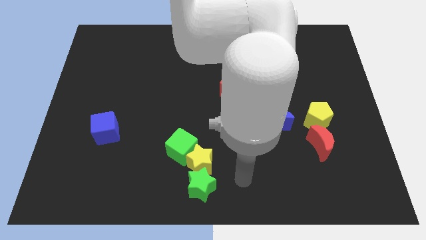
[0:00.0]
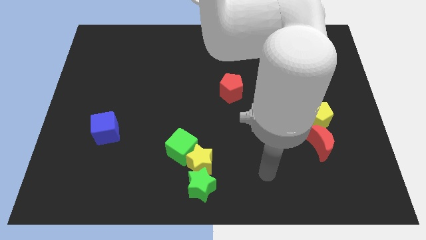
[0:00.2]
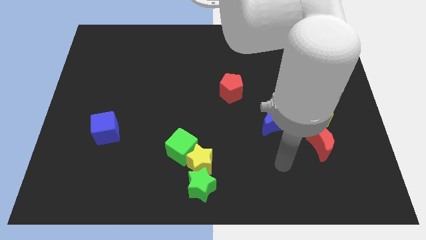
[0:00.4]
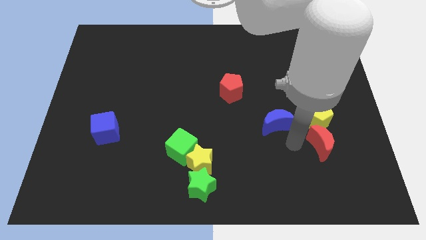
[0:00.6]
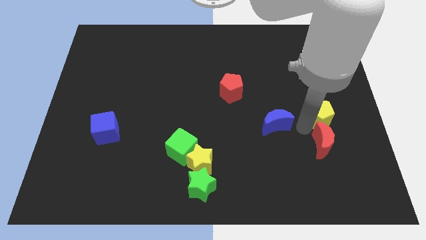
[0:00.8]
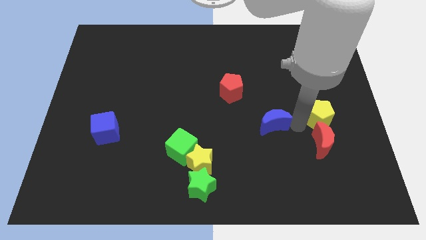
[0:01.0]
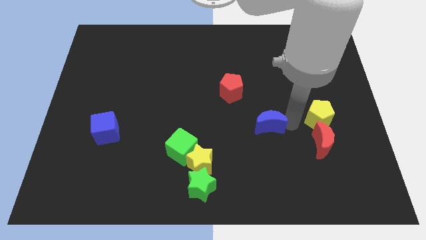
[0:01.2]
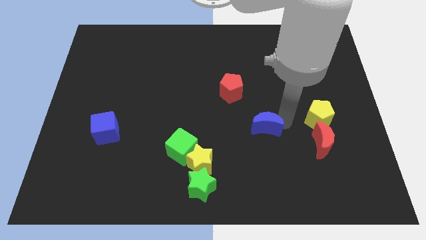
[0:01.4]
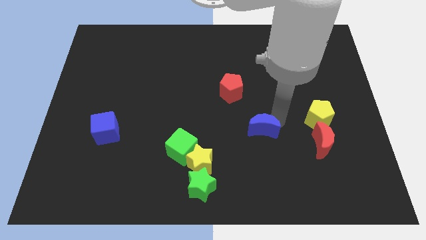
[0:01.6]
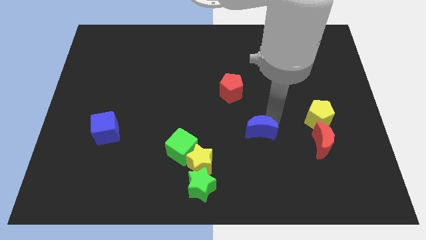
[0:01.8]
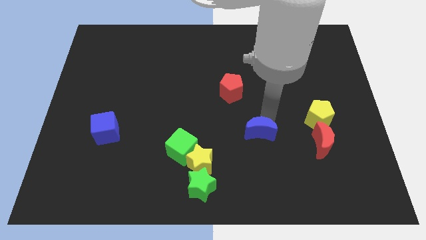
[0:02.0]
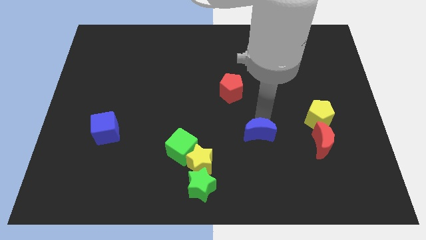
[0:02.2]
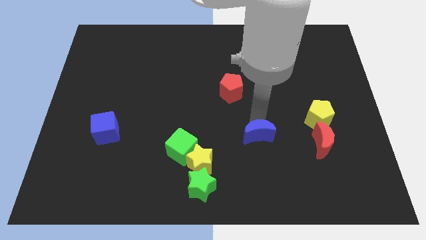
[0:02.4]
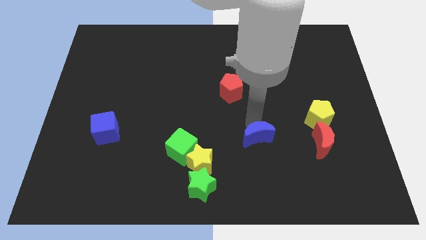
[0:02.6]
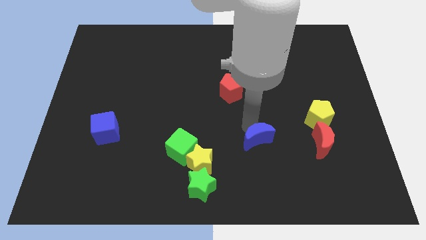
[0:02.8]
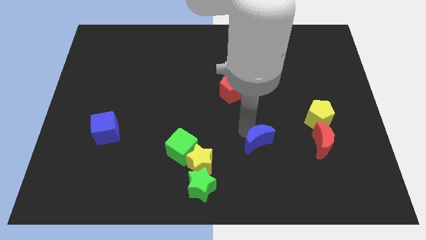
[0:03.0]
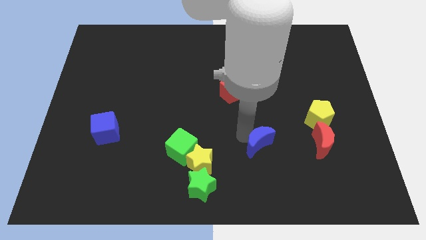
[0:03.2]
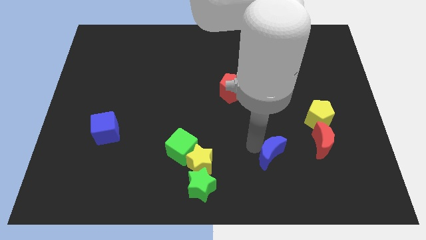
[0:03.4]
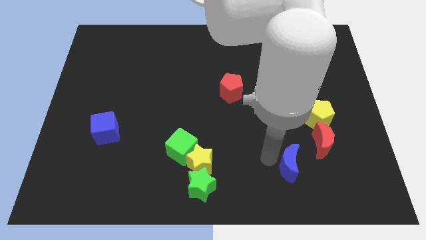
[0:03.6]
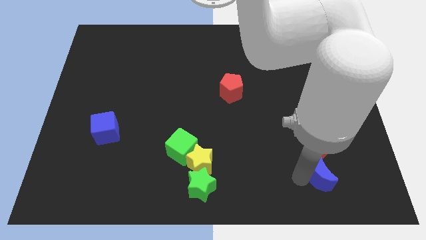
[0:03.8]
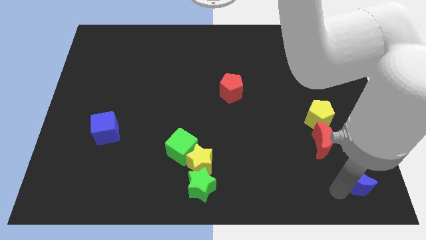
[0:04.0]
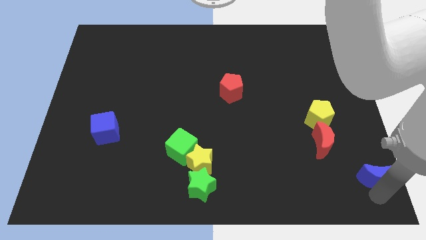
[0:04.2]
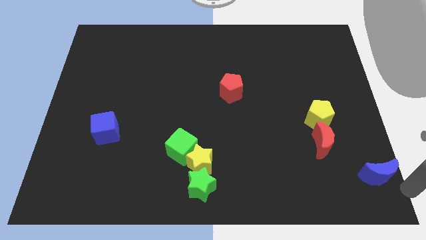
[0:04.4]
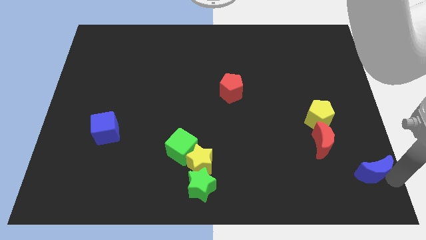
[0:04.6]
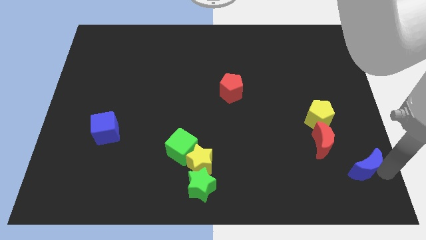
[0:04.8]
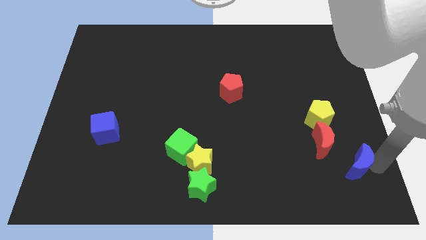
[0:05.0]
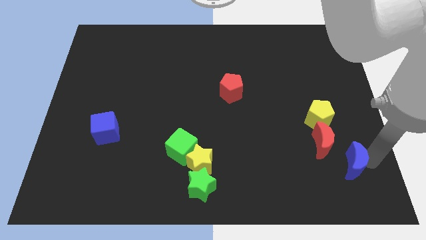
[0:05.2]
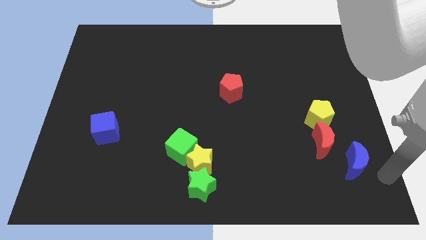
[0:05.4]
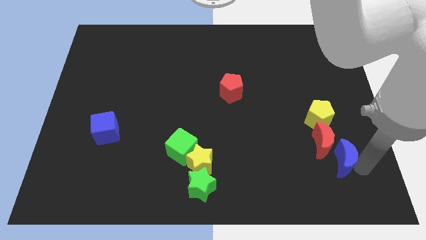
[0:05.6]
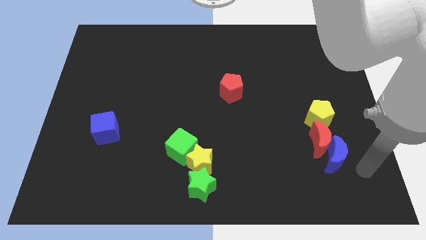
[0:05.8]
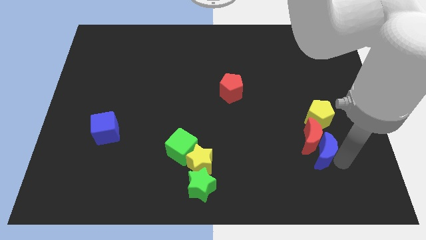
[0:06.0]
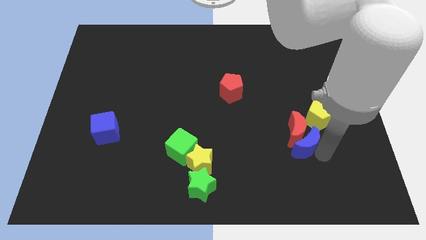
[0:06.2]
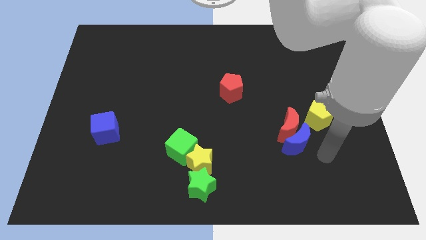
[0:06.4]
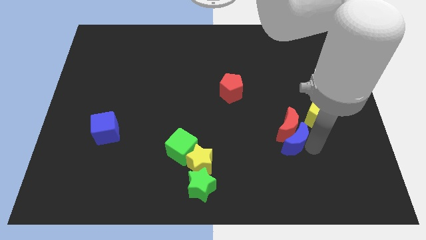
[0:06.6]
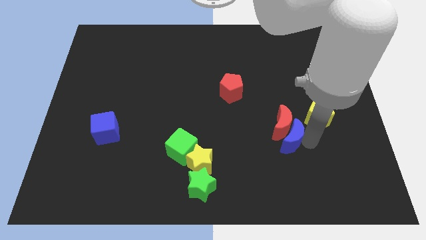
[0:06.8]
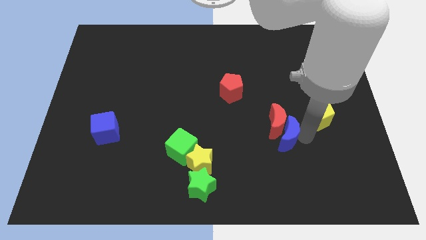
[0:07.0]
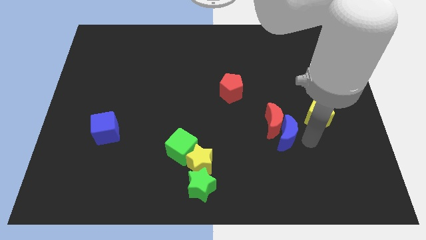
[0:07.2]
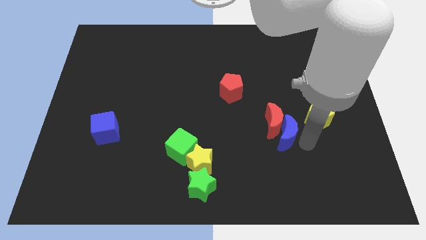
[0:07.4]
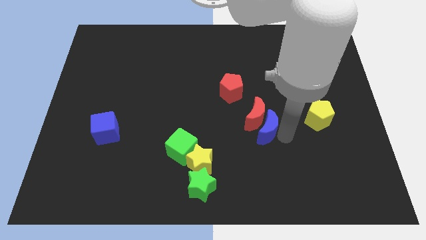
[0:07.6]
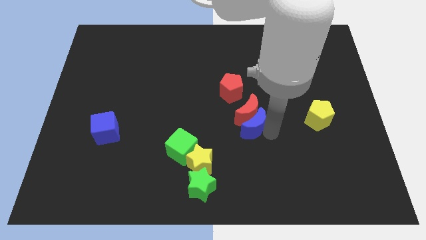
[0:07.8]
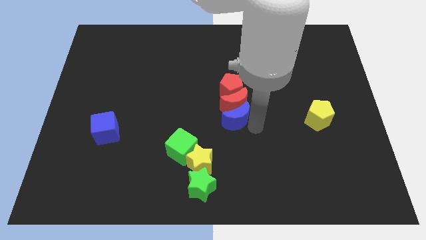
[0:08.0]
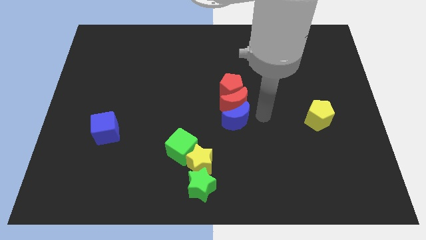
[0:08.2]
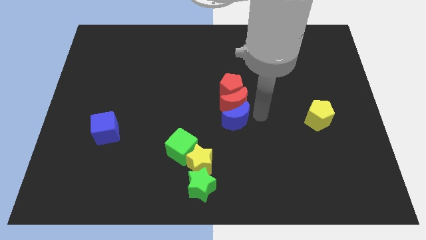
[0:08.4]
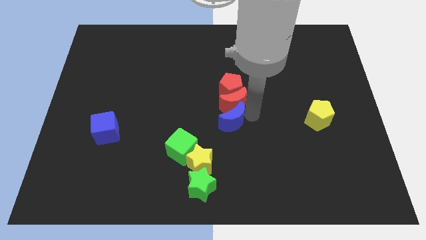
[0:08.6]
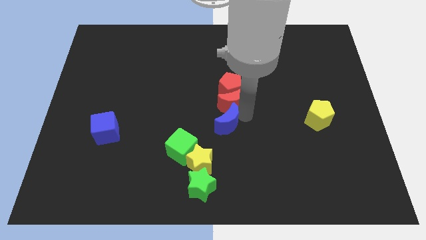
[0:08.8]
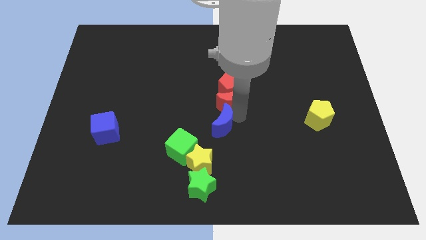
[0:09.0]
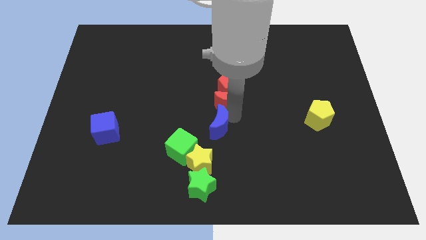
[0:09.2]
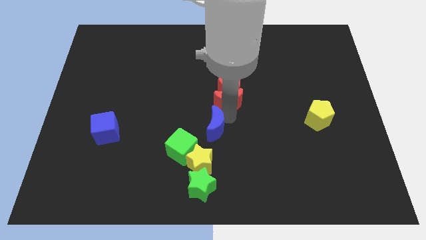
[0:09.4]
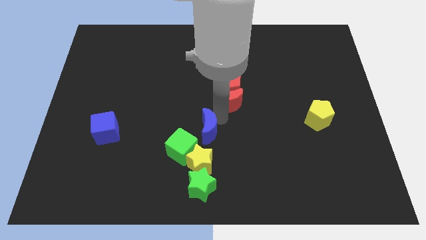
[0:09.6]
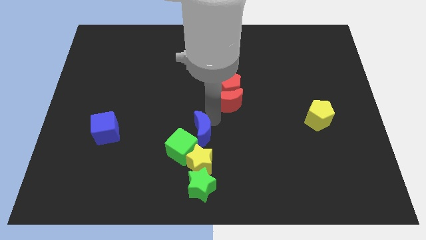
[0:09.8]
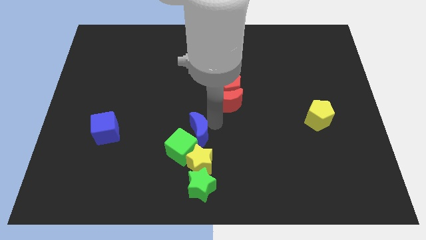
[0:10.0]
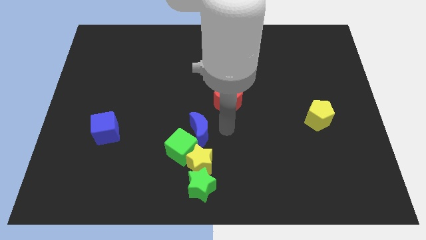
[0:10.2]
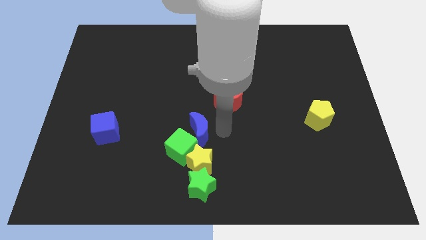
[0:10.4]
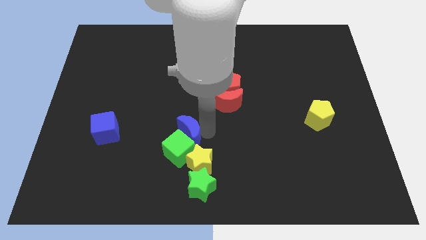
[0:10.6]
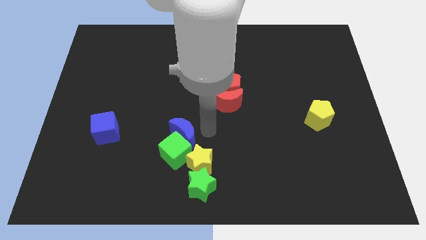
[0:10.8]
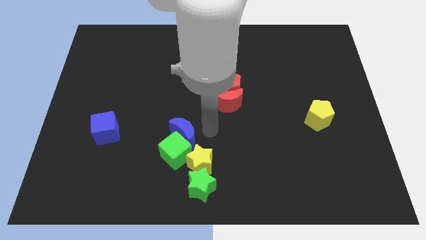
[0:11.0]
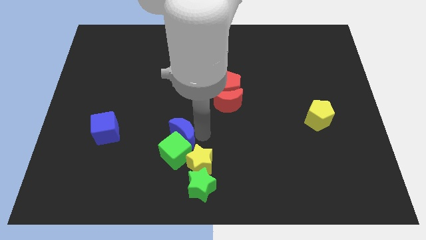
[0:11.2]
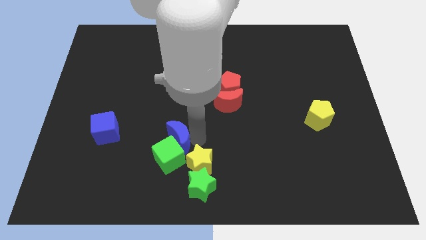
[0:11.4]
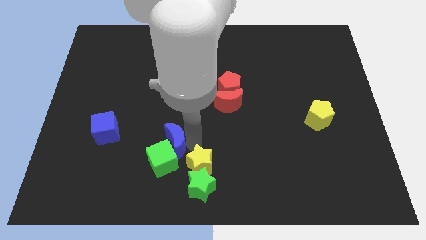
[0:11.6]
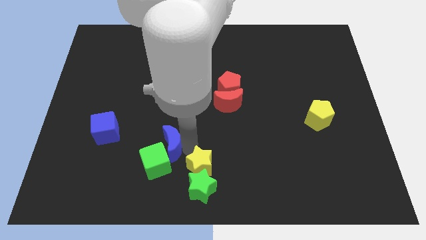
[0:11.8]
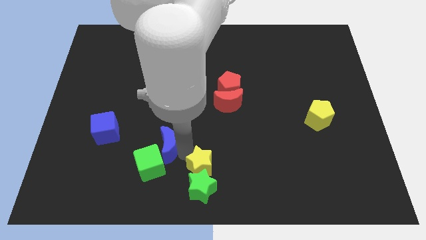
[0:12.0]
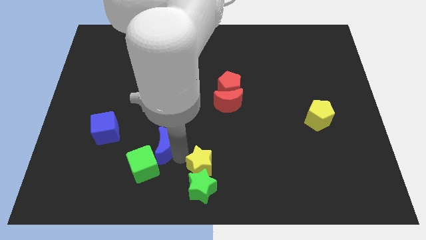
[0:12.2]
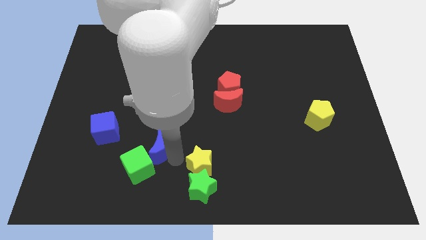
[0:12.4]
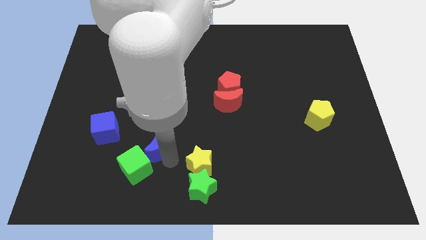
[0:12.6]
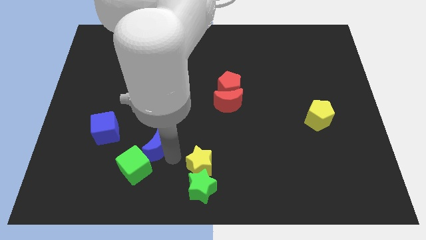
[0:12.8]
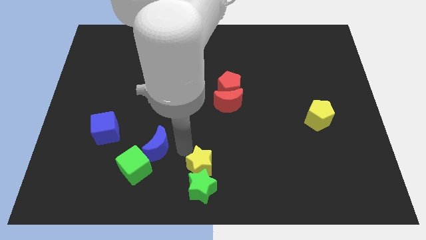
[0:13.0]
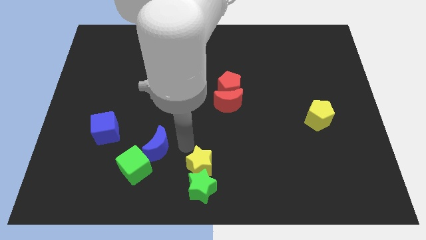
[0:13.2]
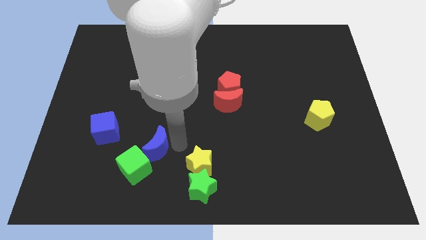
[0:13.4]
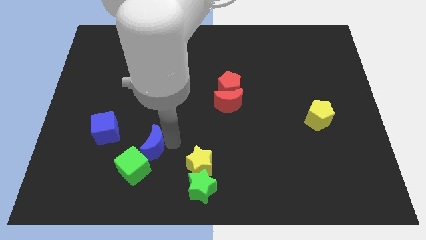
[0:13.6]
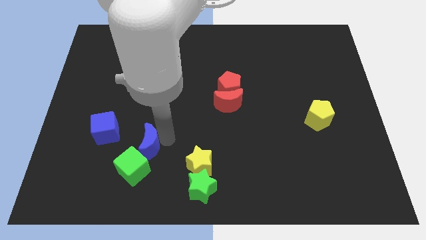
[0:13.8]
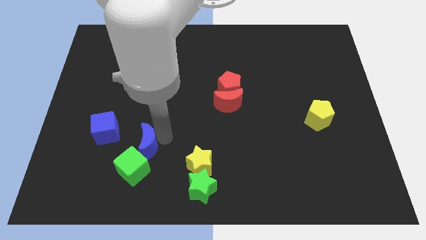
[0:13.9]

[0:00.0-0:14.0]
push the blue moon diagonally down and to the right of the blue cube

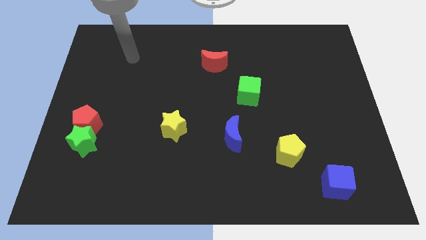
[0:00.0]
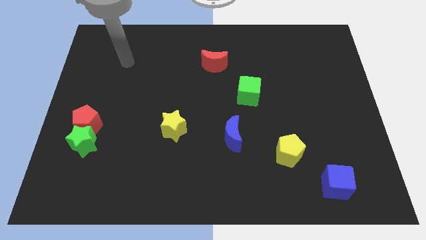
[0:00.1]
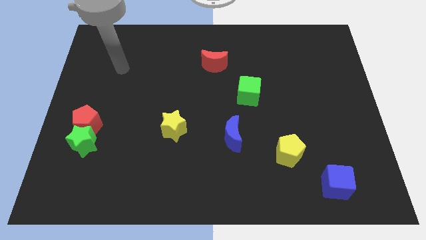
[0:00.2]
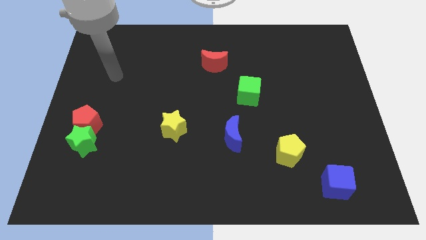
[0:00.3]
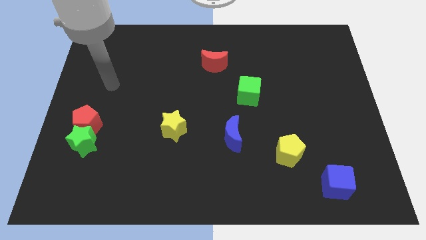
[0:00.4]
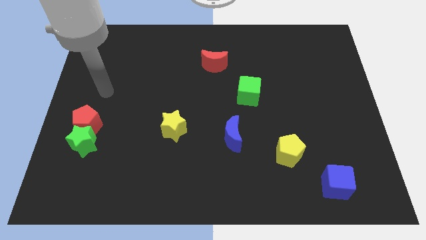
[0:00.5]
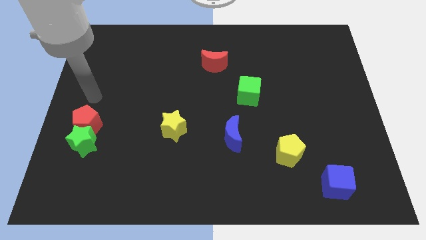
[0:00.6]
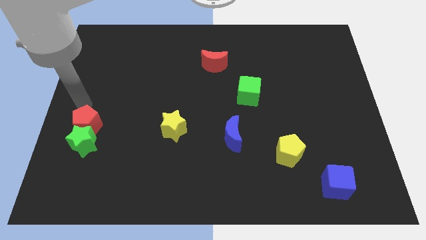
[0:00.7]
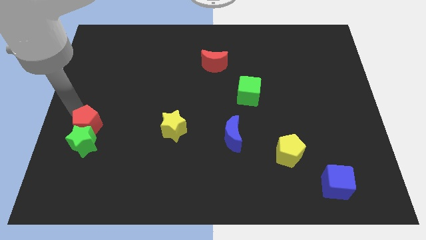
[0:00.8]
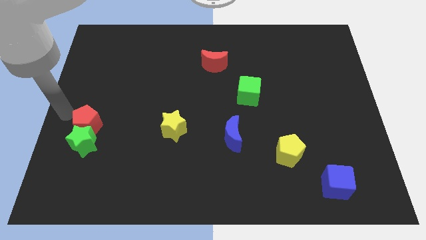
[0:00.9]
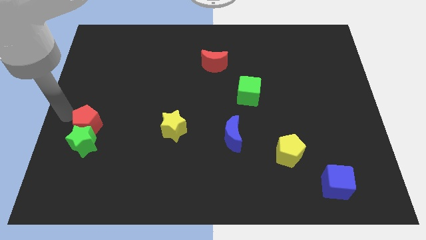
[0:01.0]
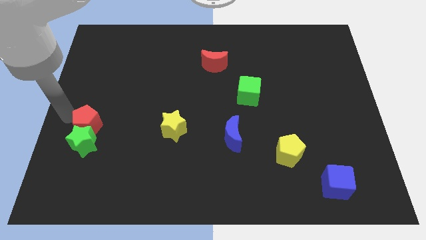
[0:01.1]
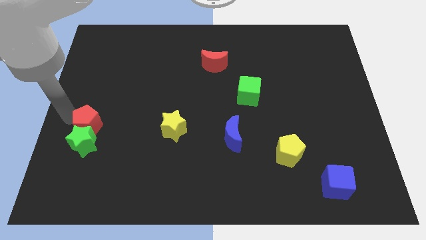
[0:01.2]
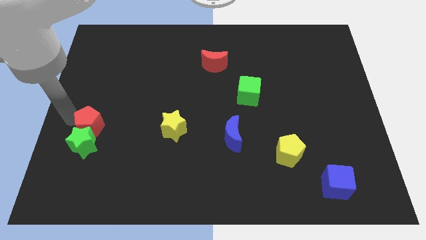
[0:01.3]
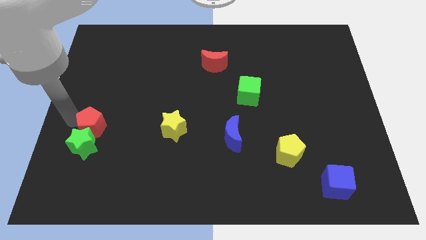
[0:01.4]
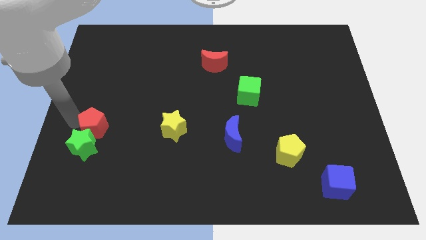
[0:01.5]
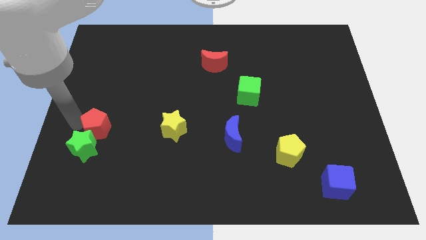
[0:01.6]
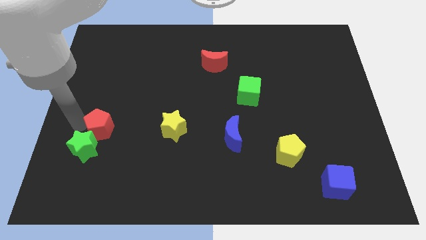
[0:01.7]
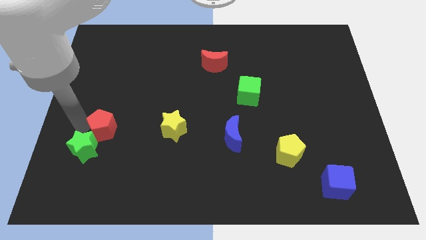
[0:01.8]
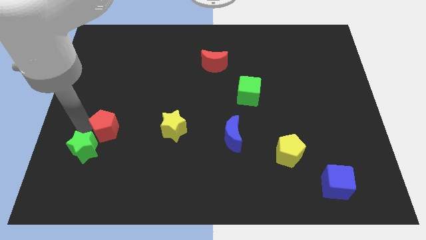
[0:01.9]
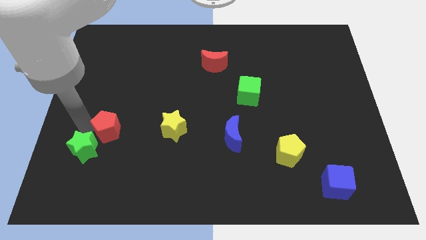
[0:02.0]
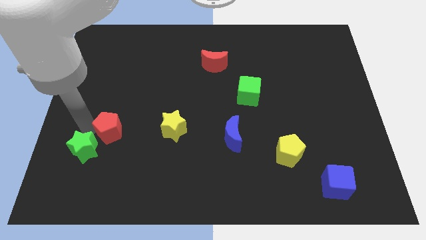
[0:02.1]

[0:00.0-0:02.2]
move the red pentagon to the right of the green star
